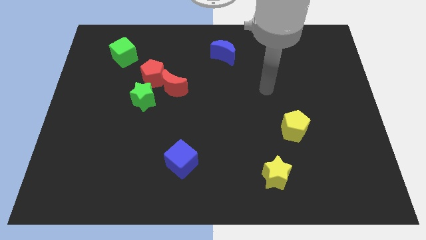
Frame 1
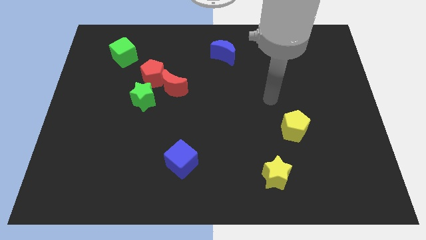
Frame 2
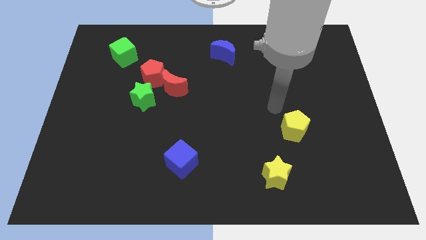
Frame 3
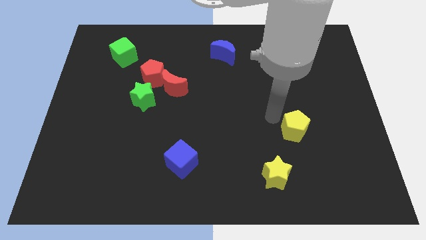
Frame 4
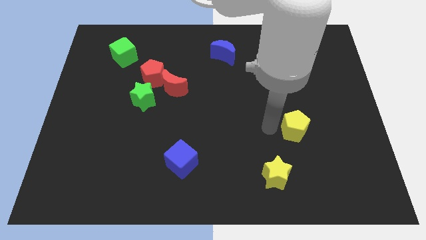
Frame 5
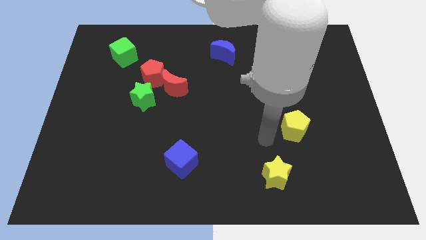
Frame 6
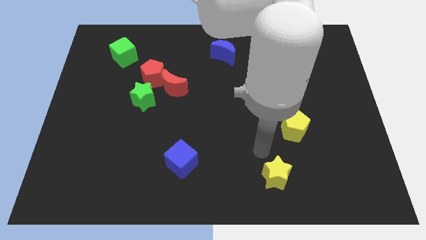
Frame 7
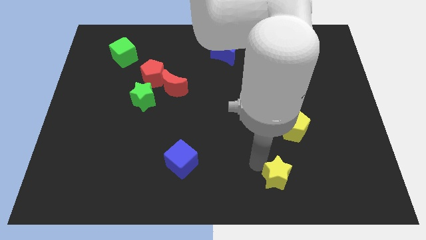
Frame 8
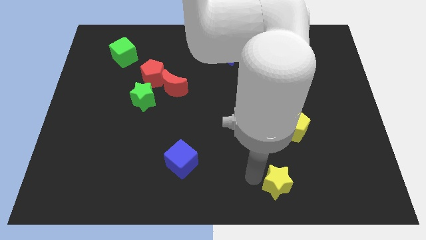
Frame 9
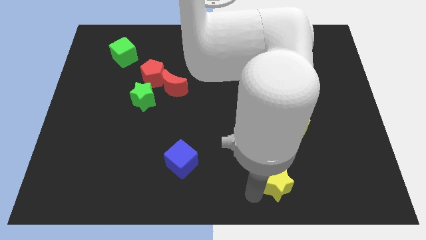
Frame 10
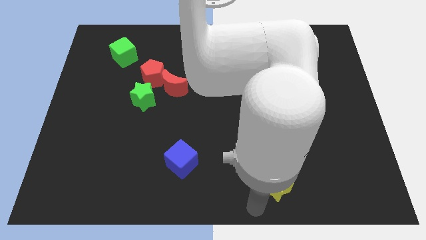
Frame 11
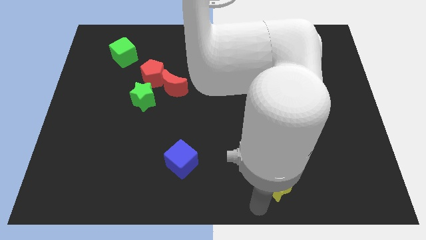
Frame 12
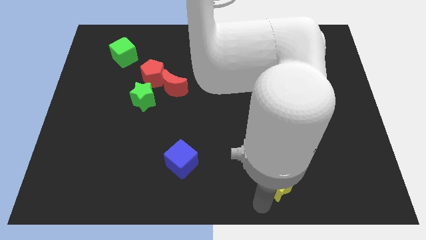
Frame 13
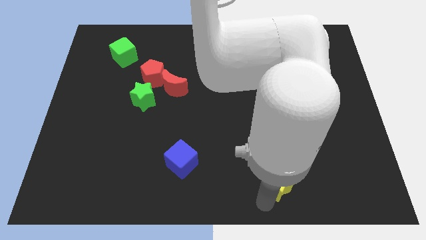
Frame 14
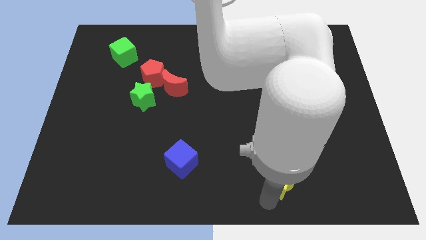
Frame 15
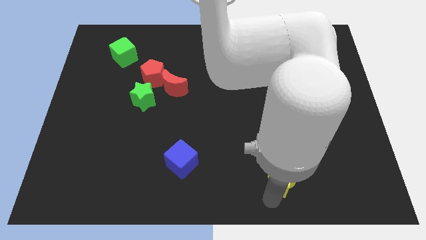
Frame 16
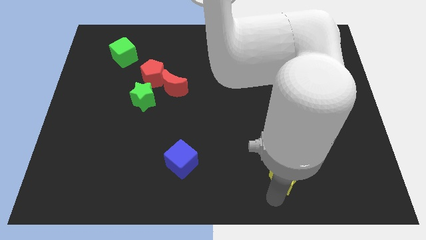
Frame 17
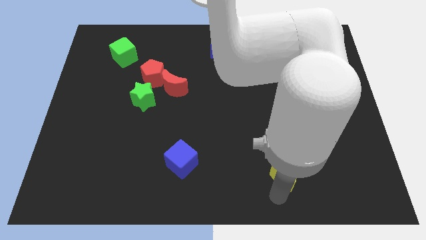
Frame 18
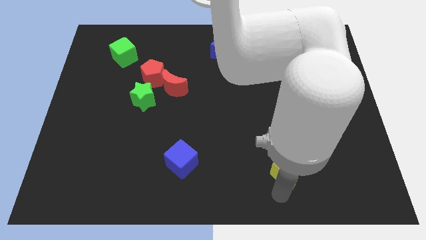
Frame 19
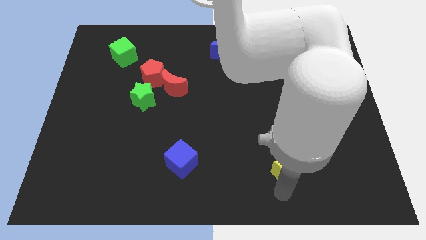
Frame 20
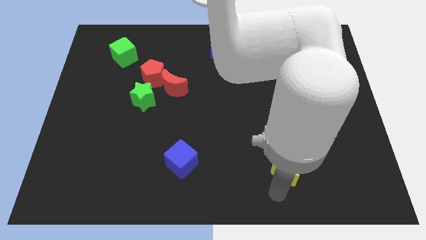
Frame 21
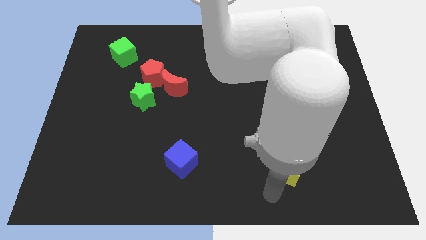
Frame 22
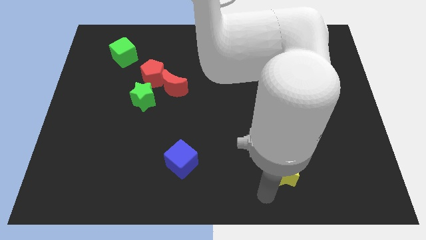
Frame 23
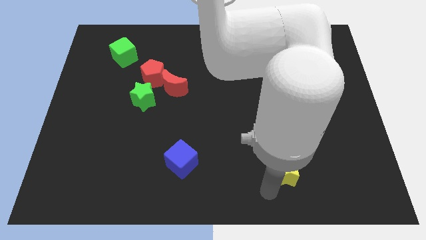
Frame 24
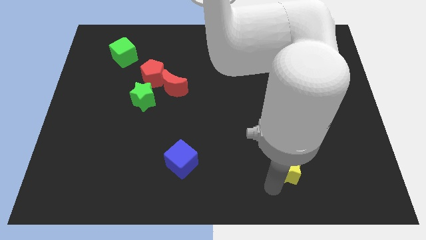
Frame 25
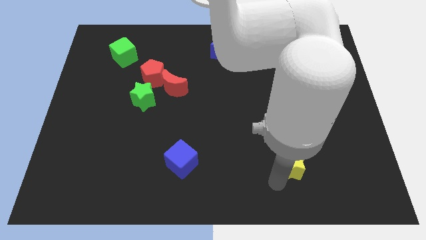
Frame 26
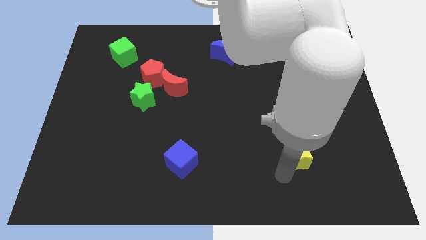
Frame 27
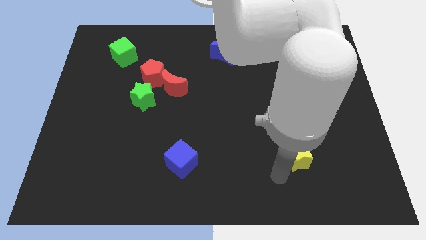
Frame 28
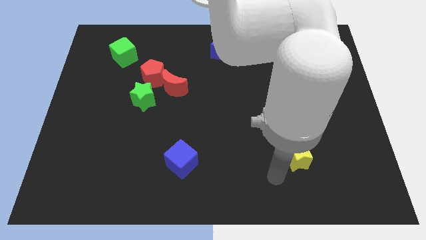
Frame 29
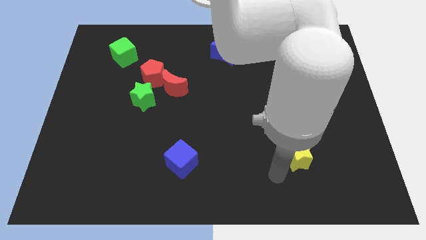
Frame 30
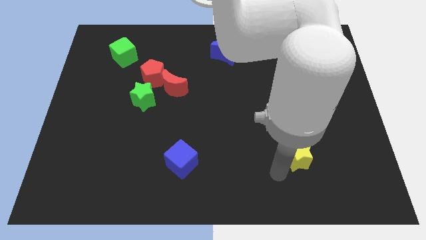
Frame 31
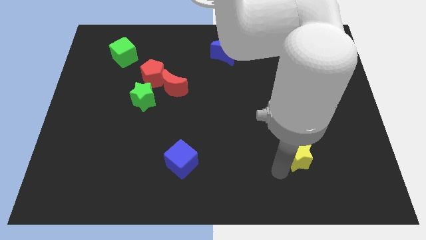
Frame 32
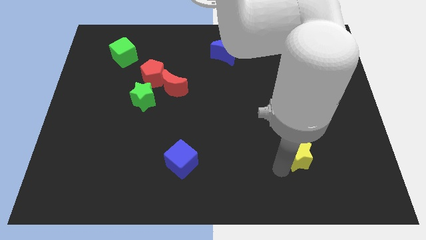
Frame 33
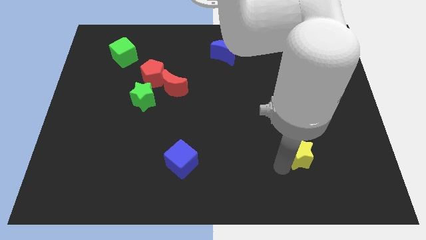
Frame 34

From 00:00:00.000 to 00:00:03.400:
move the yellow star a little bit upwards and to the right

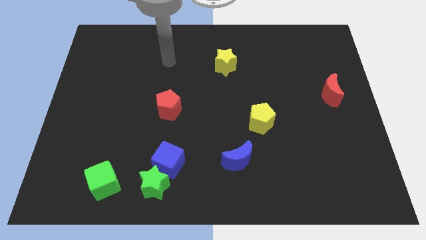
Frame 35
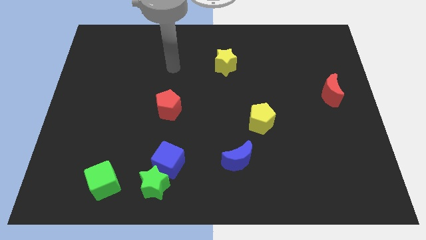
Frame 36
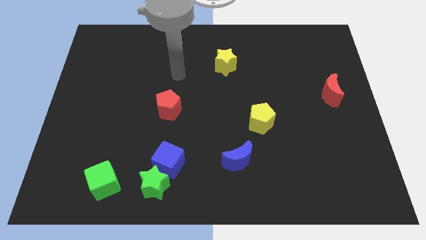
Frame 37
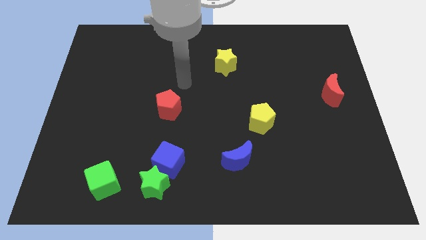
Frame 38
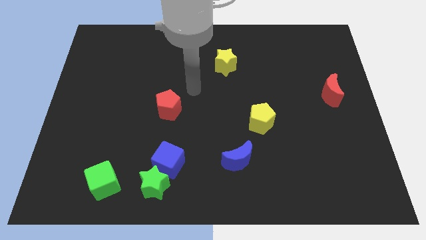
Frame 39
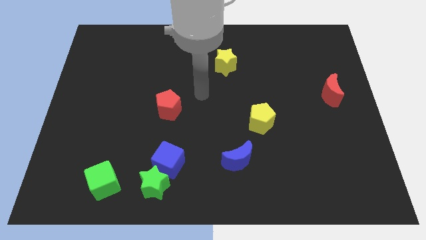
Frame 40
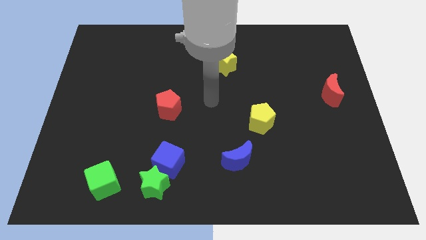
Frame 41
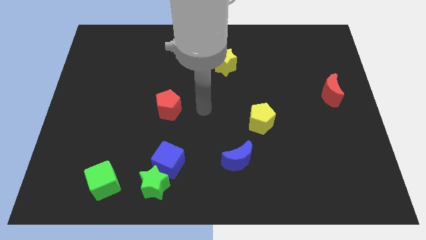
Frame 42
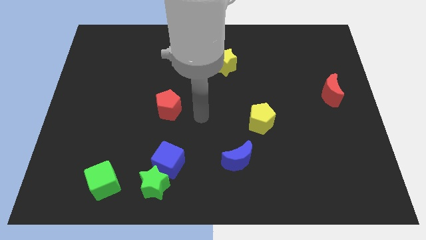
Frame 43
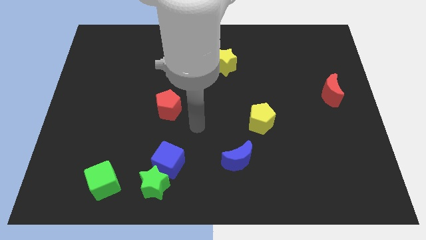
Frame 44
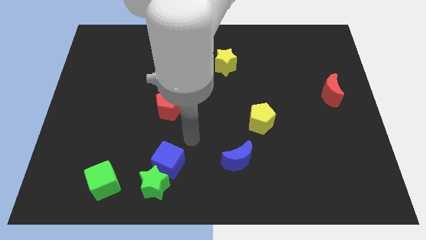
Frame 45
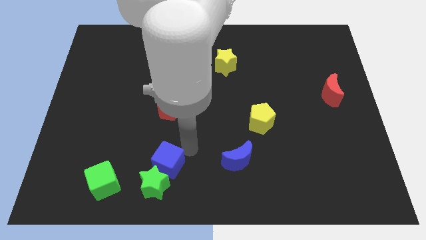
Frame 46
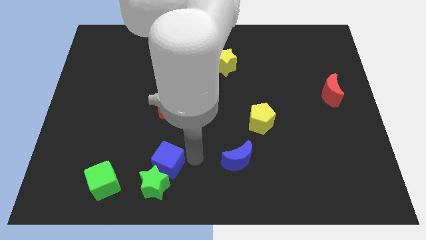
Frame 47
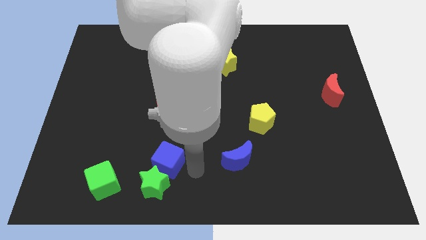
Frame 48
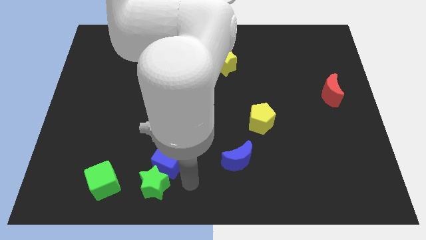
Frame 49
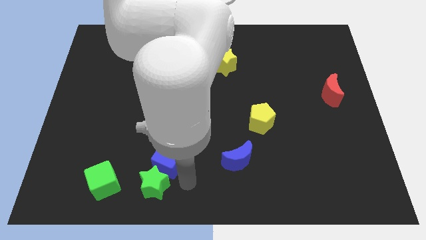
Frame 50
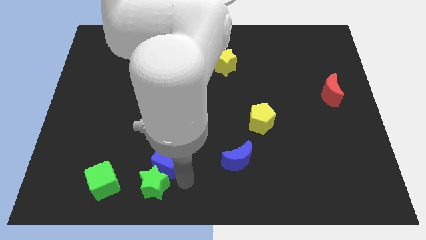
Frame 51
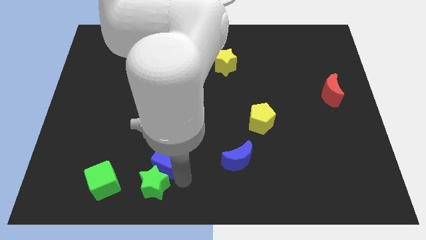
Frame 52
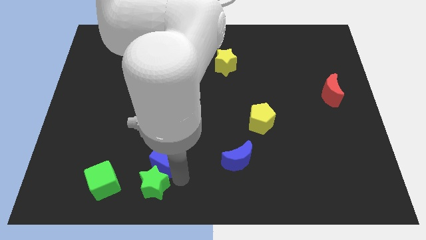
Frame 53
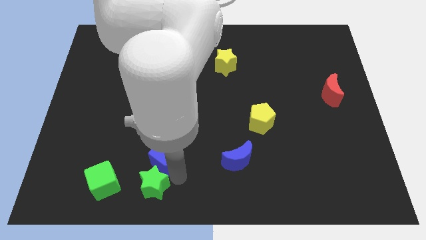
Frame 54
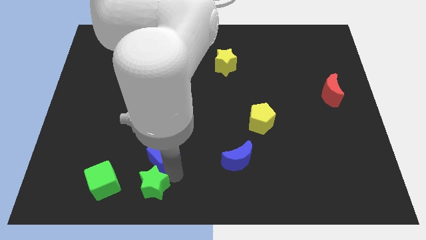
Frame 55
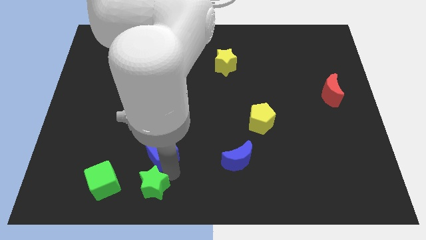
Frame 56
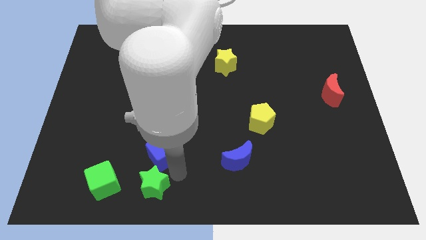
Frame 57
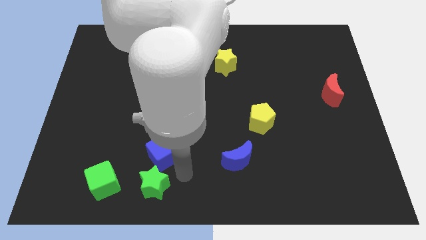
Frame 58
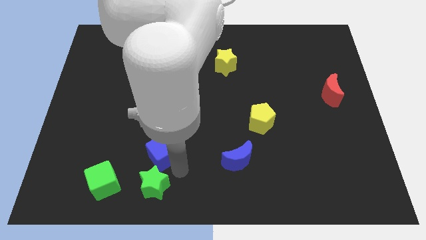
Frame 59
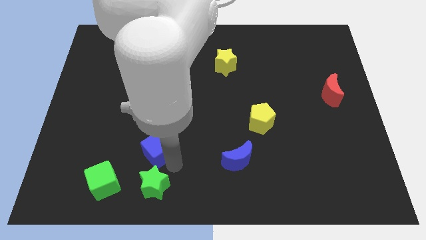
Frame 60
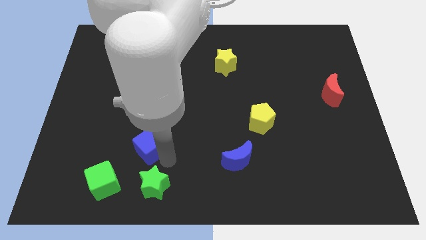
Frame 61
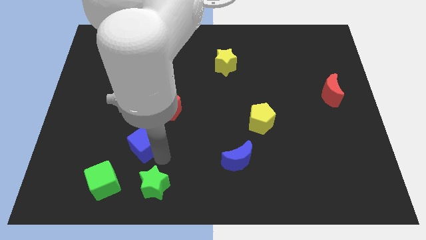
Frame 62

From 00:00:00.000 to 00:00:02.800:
slightly move the blue cube diagonally up and to the left

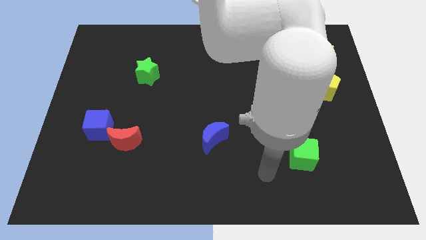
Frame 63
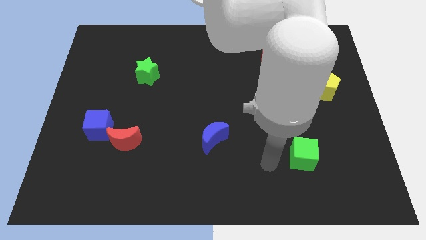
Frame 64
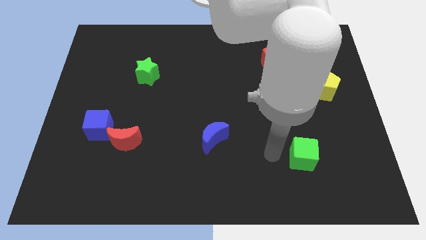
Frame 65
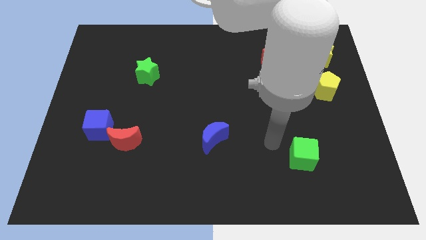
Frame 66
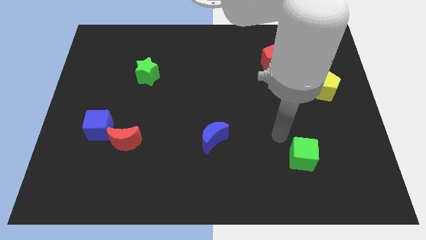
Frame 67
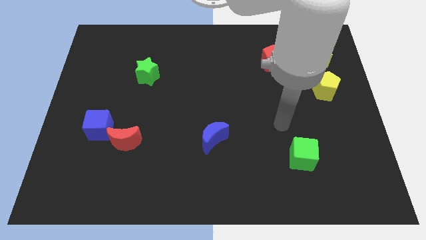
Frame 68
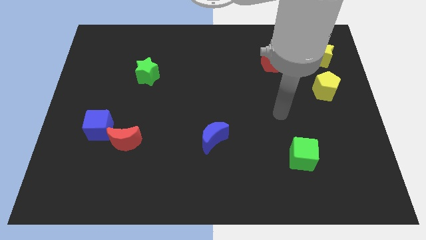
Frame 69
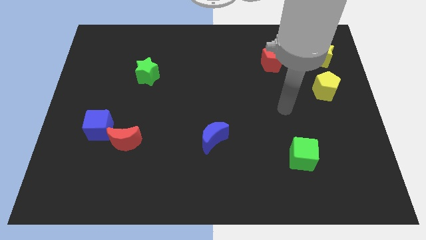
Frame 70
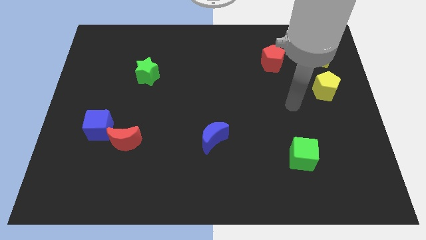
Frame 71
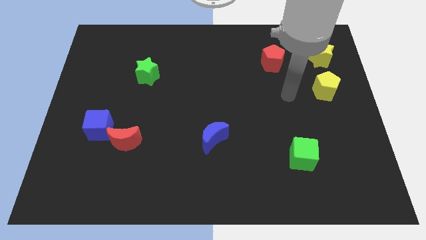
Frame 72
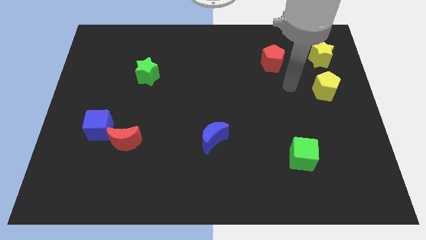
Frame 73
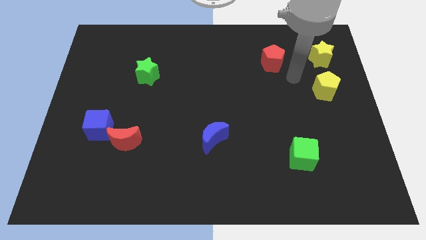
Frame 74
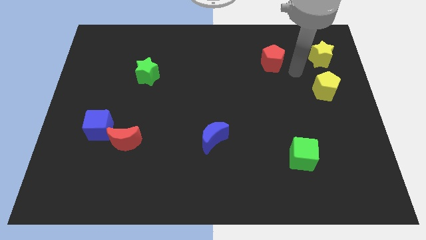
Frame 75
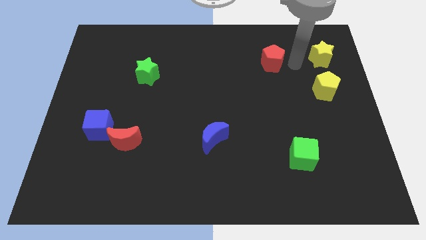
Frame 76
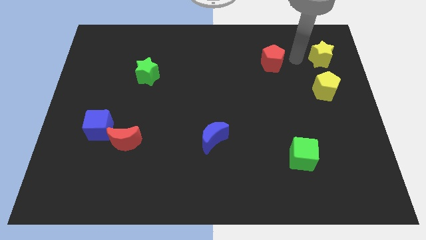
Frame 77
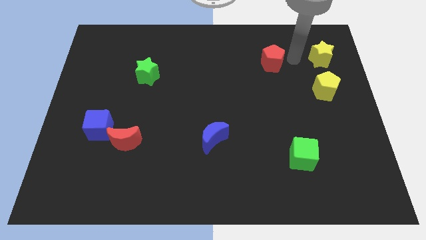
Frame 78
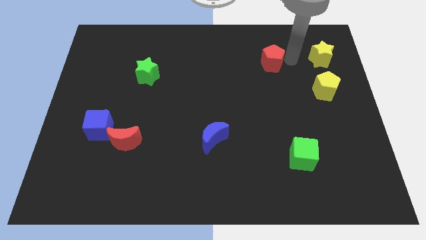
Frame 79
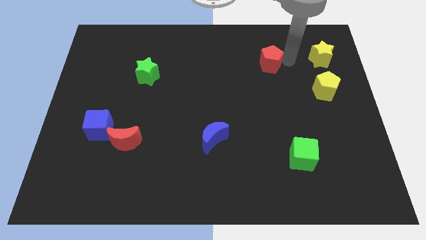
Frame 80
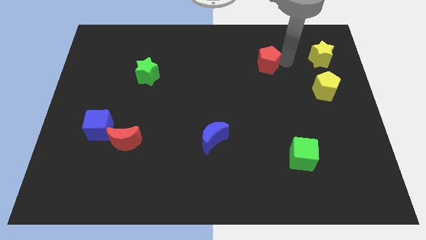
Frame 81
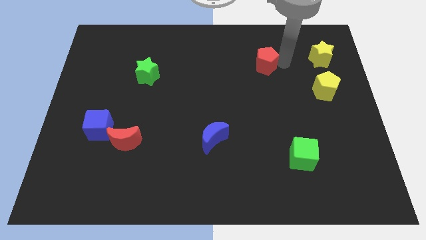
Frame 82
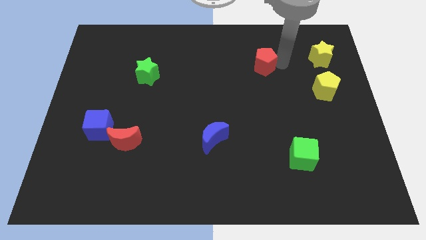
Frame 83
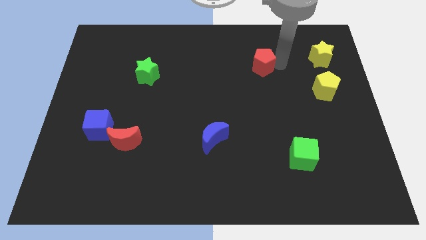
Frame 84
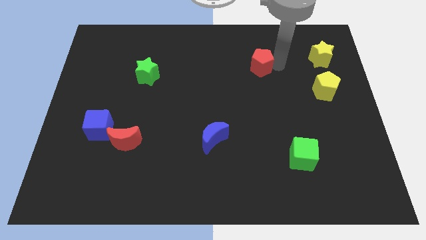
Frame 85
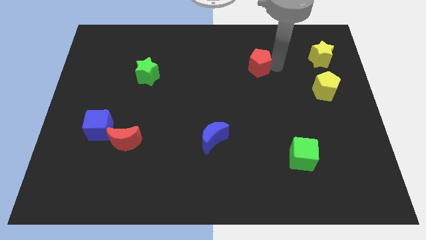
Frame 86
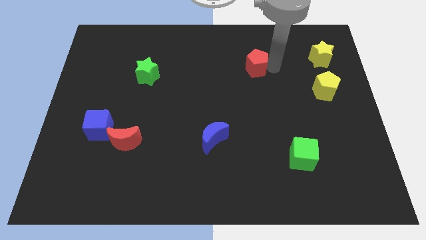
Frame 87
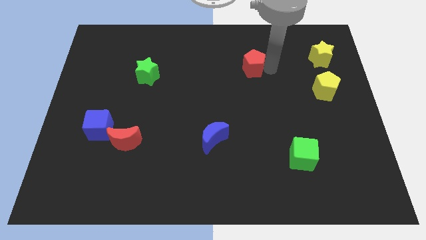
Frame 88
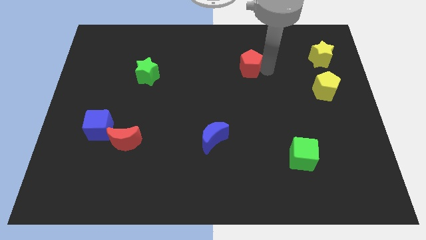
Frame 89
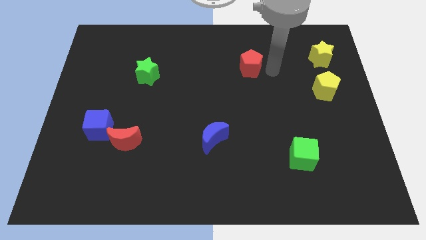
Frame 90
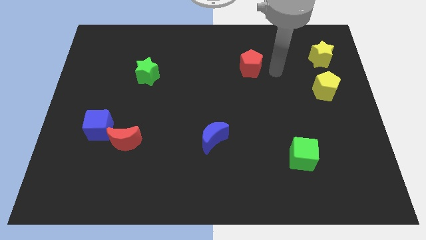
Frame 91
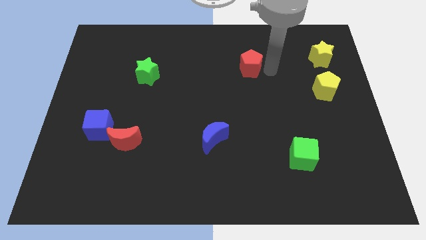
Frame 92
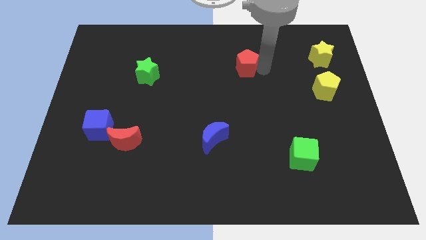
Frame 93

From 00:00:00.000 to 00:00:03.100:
push the red pentagon to the left somewhat
